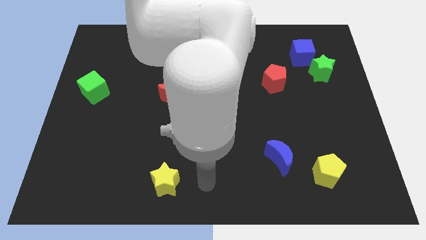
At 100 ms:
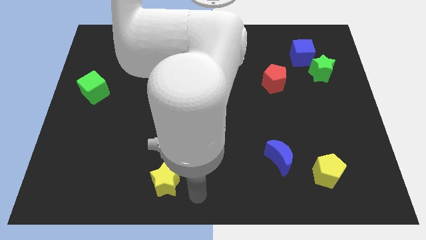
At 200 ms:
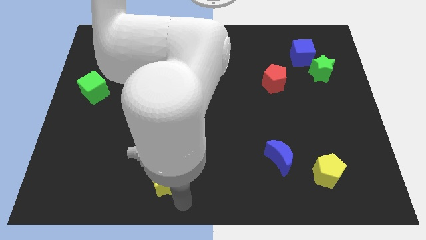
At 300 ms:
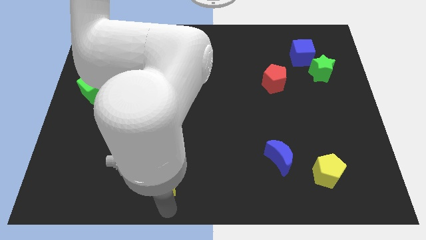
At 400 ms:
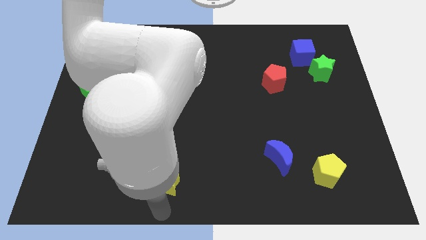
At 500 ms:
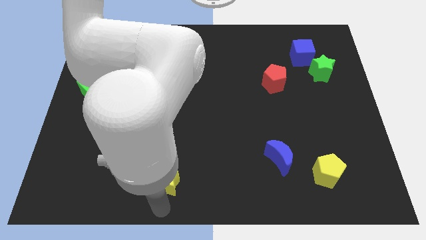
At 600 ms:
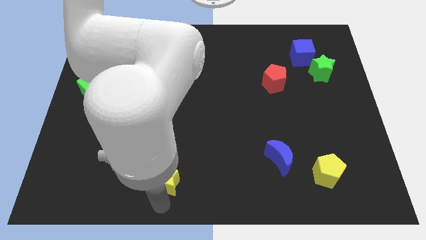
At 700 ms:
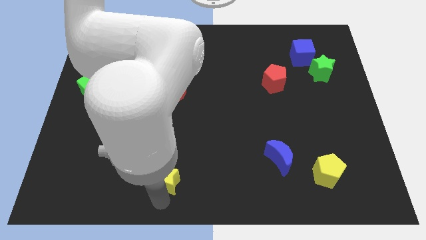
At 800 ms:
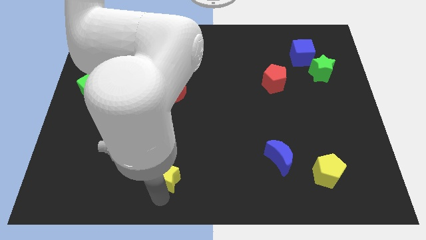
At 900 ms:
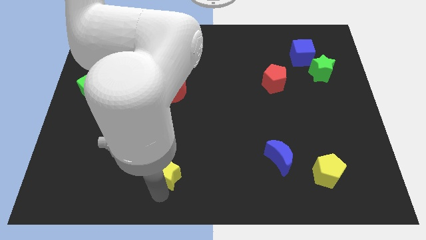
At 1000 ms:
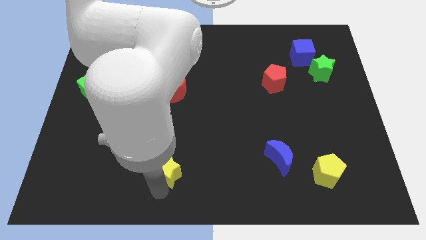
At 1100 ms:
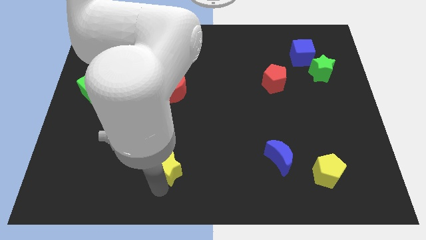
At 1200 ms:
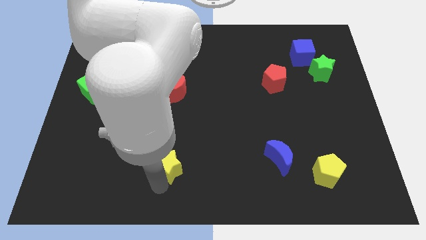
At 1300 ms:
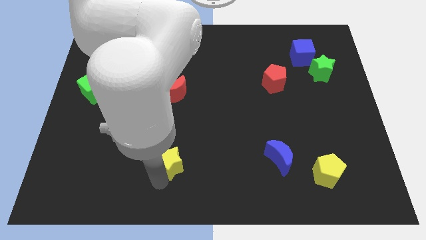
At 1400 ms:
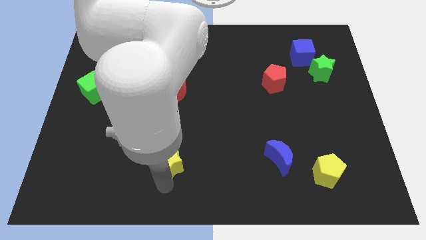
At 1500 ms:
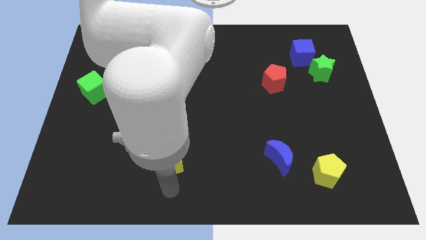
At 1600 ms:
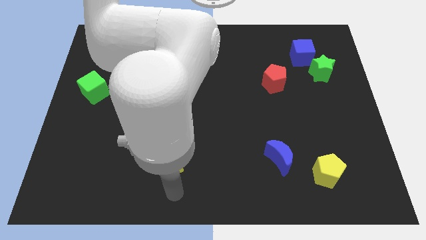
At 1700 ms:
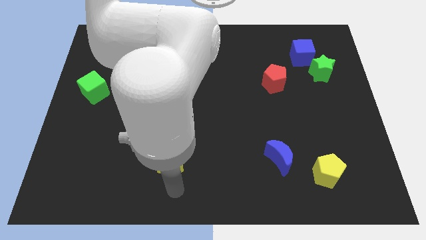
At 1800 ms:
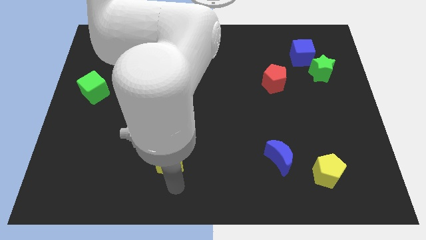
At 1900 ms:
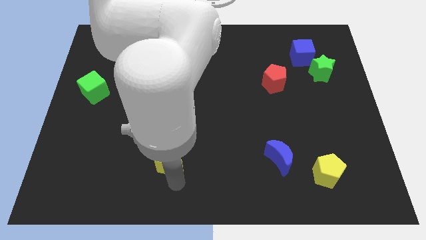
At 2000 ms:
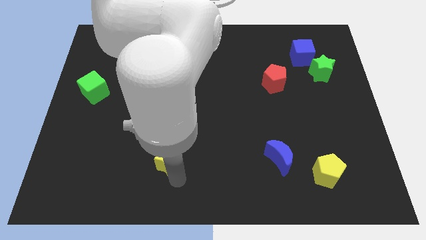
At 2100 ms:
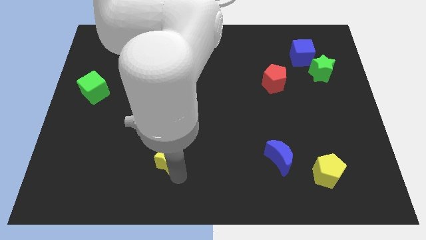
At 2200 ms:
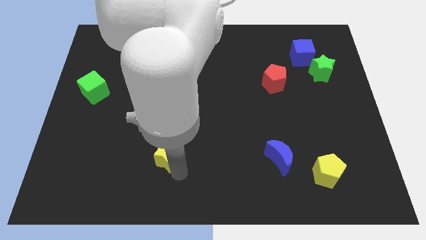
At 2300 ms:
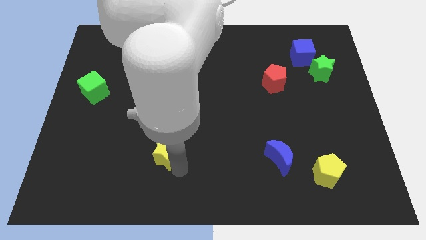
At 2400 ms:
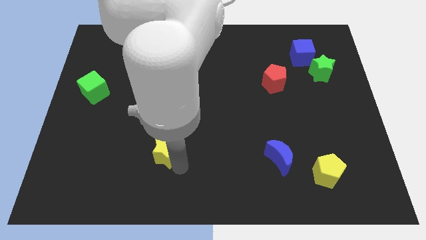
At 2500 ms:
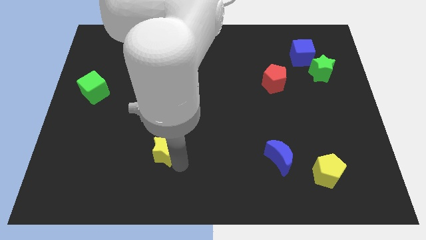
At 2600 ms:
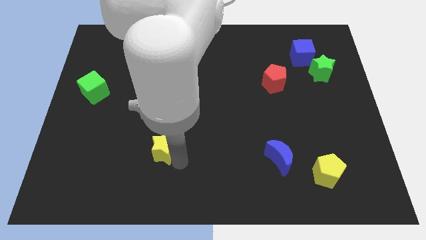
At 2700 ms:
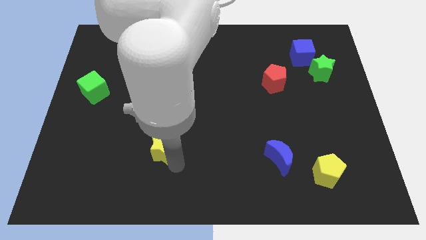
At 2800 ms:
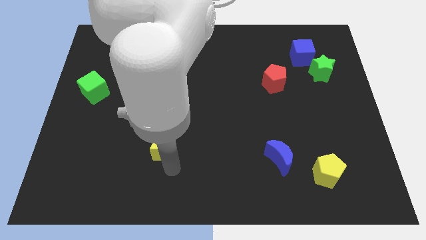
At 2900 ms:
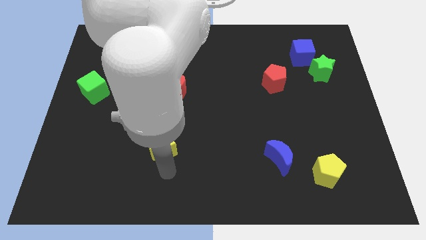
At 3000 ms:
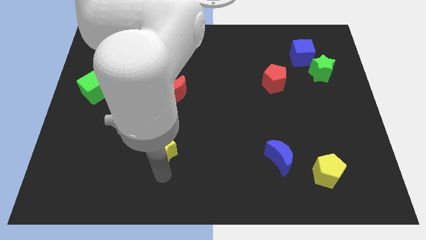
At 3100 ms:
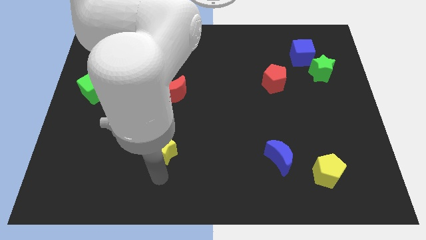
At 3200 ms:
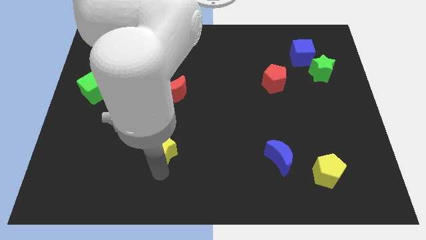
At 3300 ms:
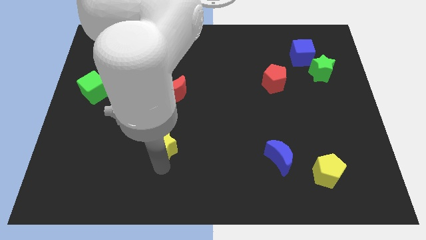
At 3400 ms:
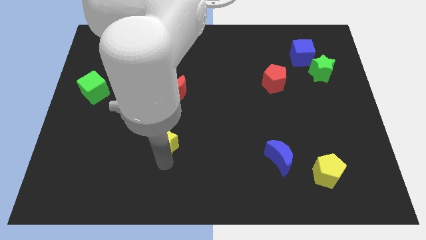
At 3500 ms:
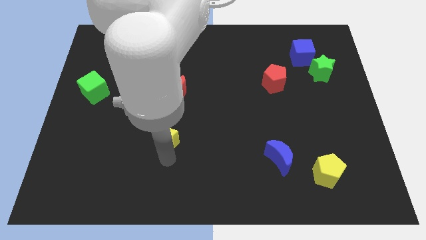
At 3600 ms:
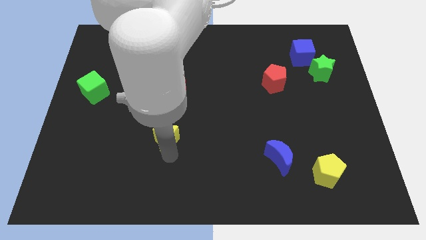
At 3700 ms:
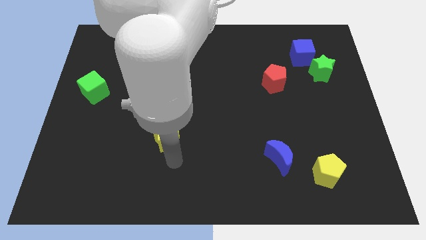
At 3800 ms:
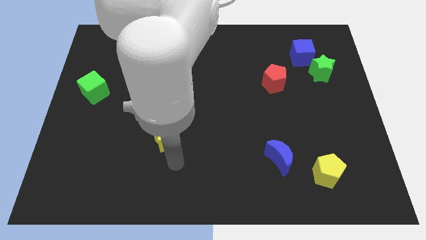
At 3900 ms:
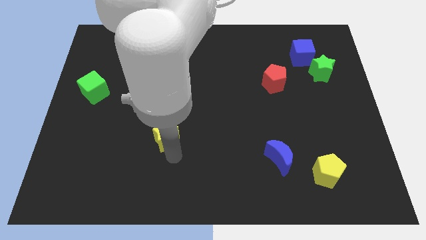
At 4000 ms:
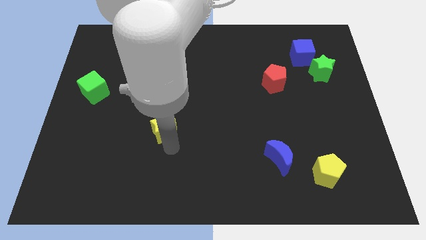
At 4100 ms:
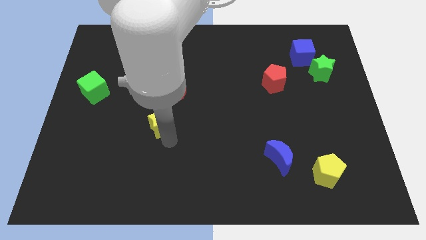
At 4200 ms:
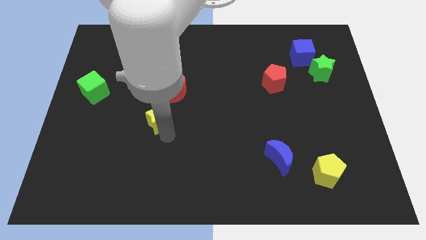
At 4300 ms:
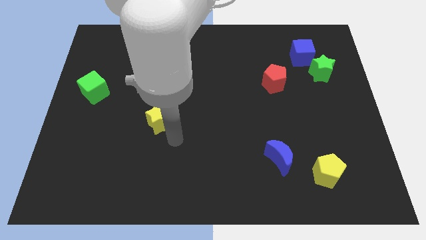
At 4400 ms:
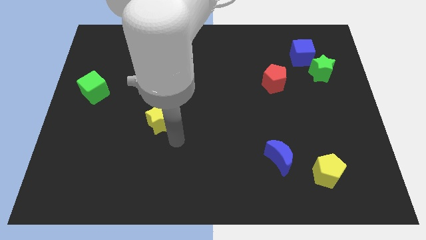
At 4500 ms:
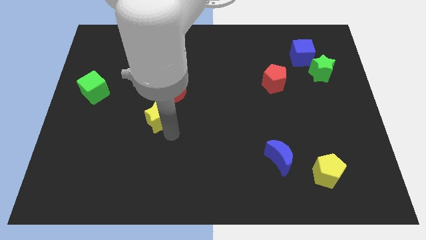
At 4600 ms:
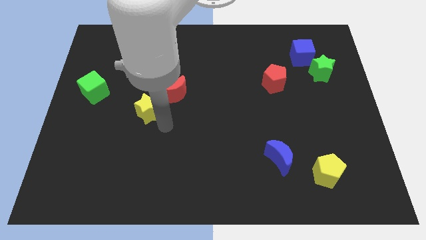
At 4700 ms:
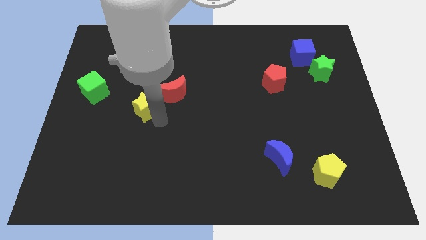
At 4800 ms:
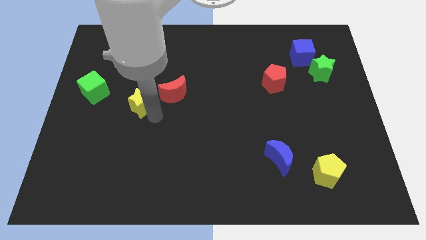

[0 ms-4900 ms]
move the yellow star to the right of the green cube

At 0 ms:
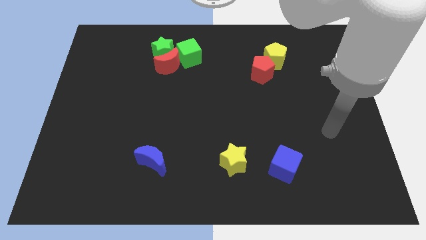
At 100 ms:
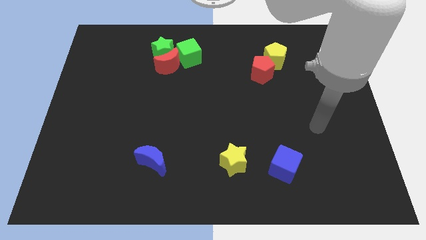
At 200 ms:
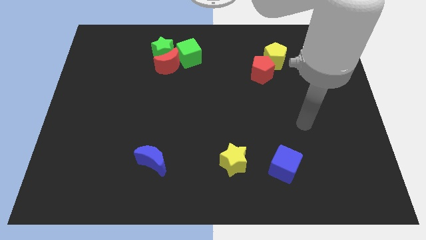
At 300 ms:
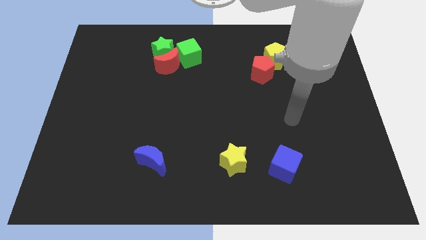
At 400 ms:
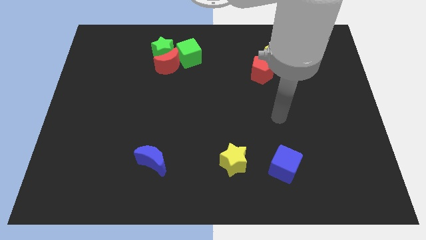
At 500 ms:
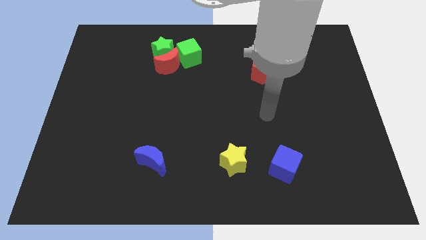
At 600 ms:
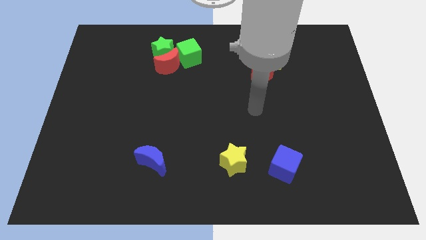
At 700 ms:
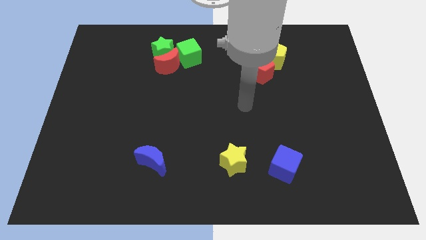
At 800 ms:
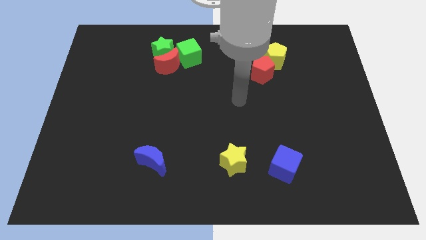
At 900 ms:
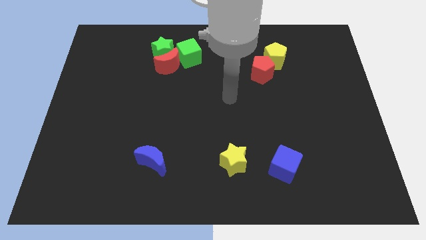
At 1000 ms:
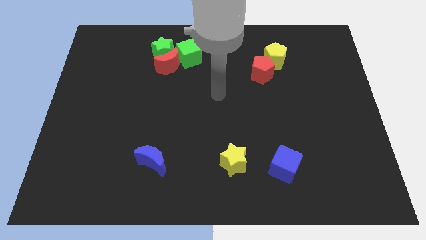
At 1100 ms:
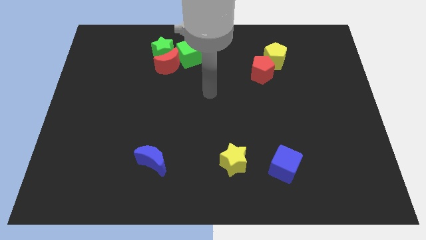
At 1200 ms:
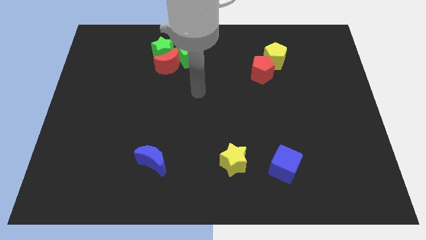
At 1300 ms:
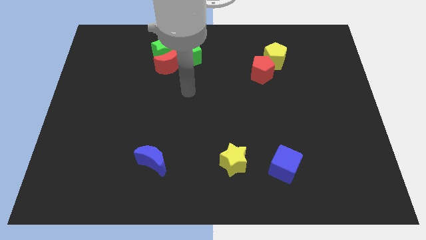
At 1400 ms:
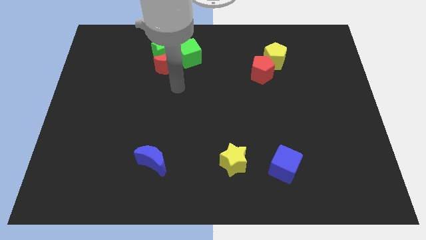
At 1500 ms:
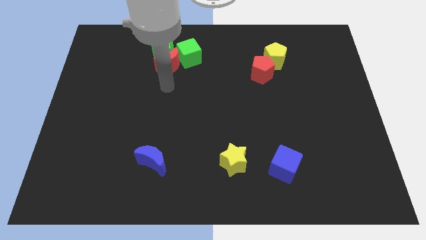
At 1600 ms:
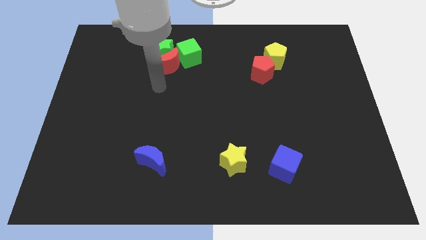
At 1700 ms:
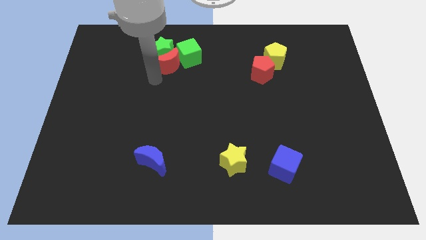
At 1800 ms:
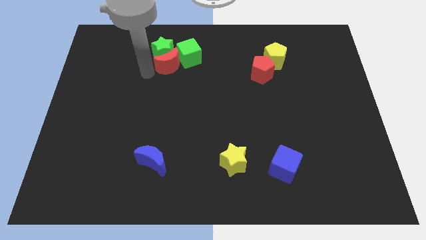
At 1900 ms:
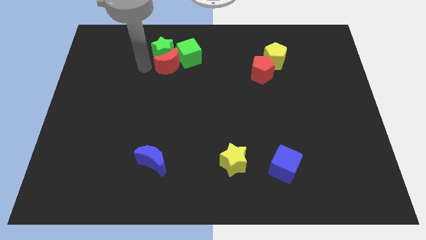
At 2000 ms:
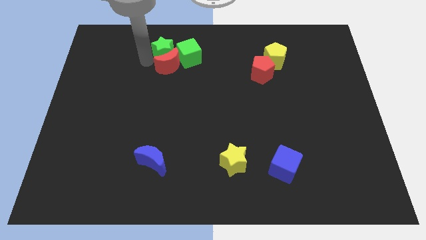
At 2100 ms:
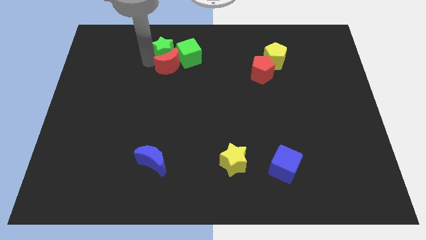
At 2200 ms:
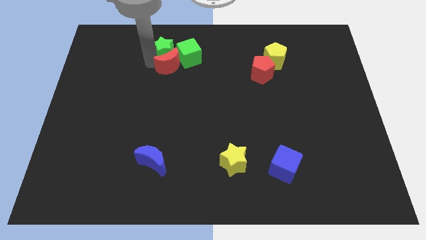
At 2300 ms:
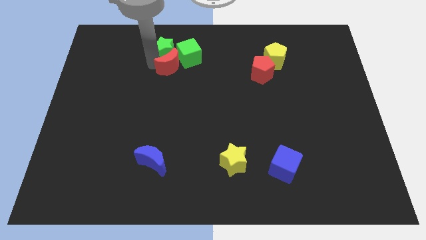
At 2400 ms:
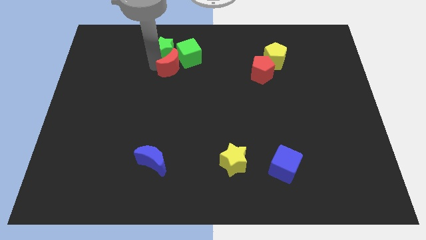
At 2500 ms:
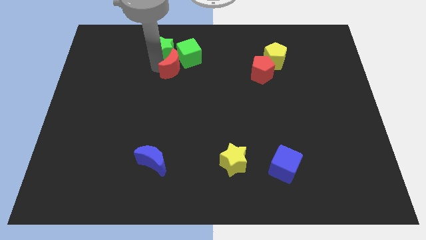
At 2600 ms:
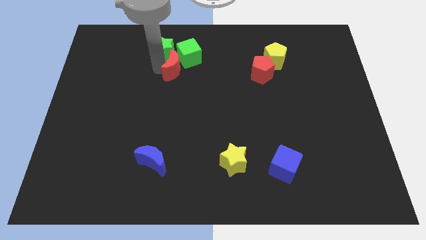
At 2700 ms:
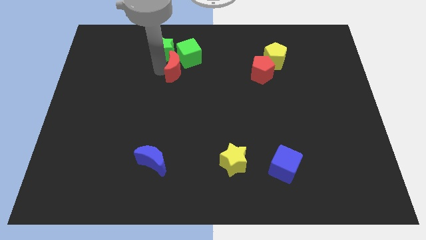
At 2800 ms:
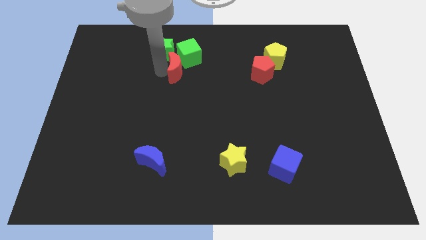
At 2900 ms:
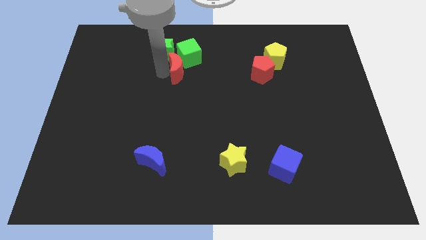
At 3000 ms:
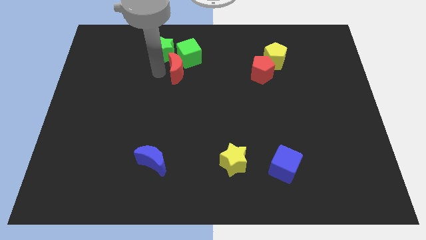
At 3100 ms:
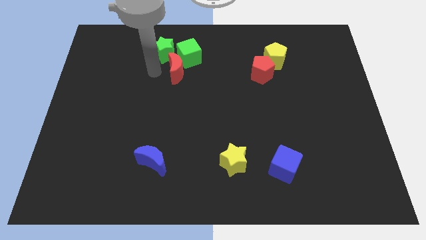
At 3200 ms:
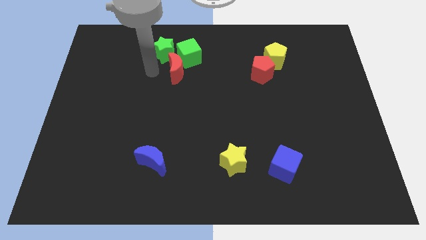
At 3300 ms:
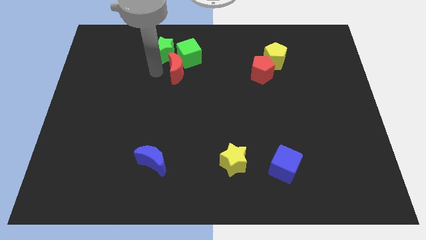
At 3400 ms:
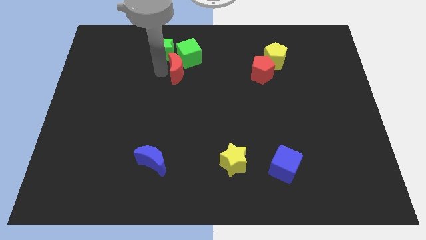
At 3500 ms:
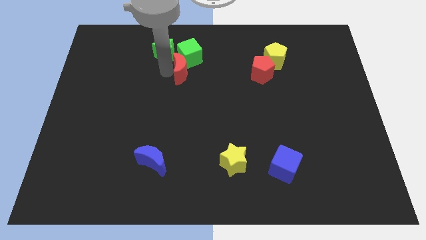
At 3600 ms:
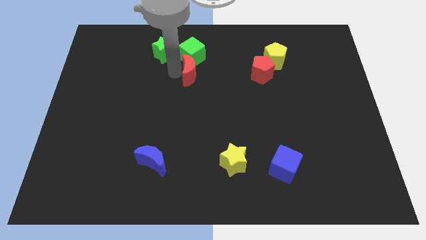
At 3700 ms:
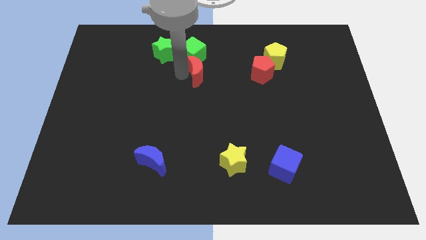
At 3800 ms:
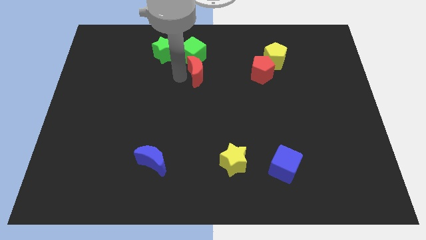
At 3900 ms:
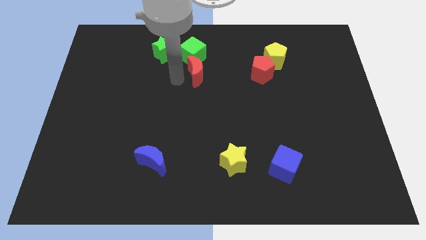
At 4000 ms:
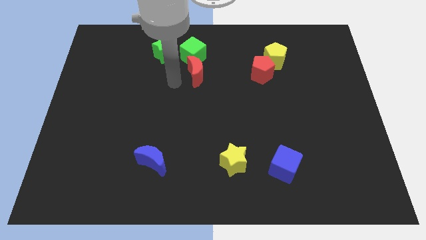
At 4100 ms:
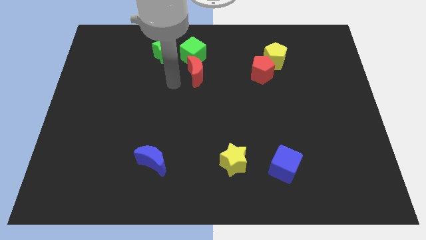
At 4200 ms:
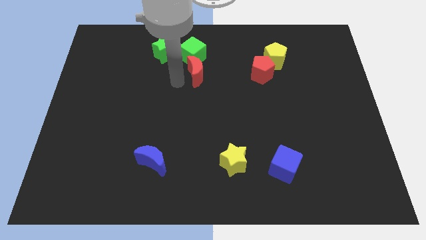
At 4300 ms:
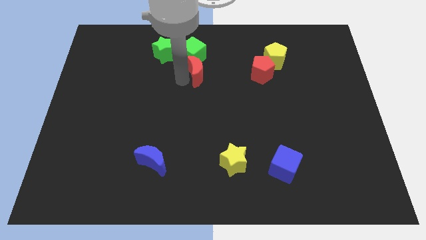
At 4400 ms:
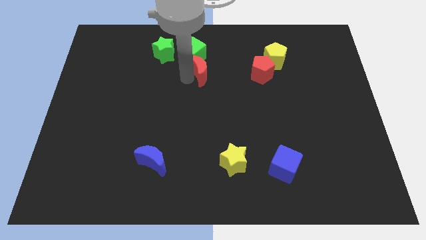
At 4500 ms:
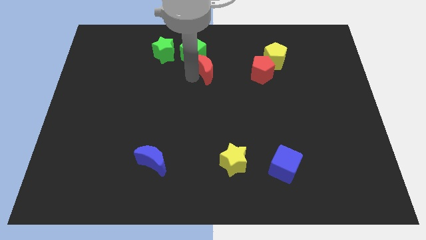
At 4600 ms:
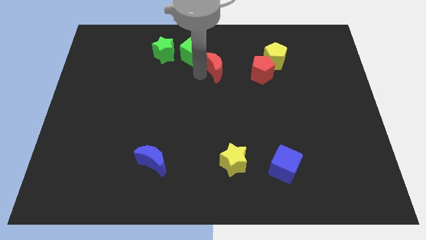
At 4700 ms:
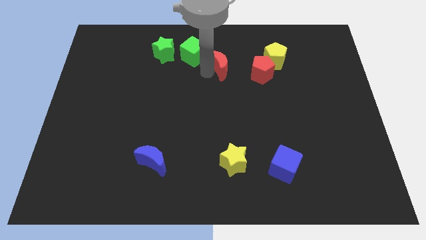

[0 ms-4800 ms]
move the red moon left of the yellow pentagon
